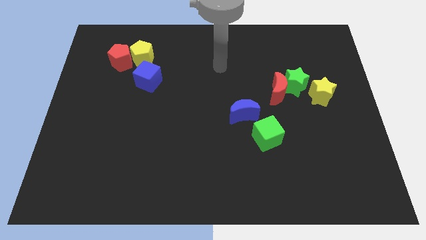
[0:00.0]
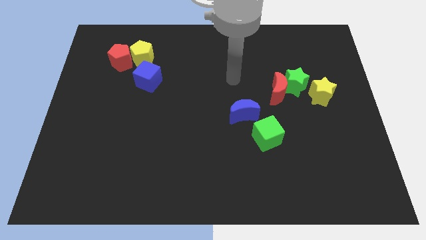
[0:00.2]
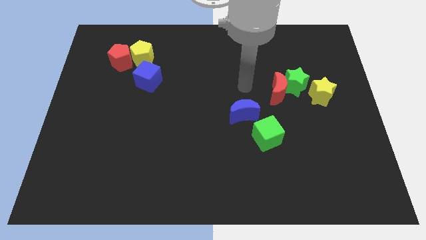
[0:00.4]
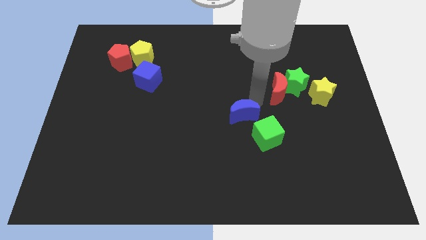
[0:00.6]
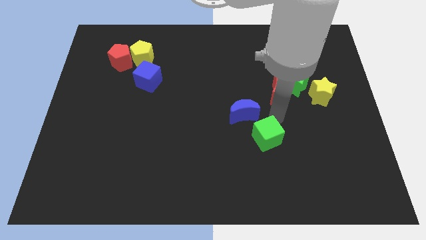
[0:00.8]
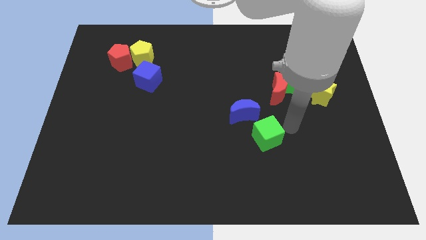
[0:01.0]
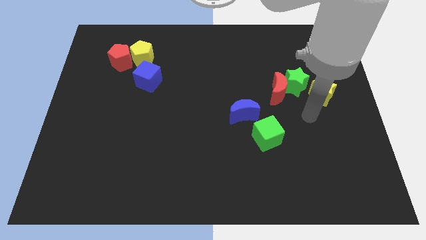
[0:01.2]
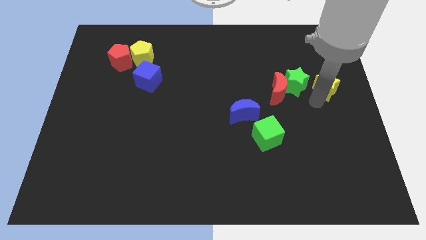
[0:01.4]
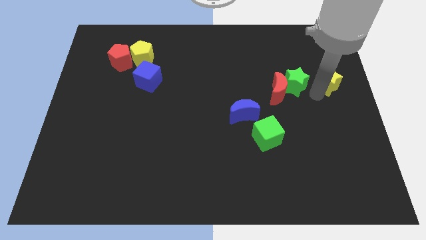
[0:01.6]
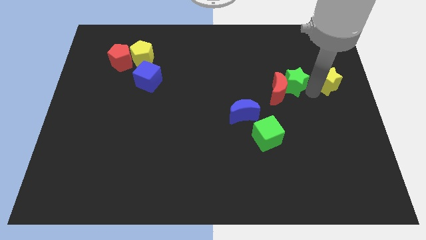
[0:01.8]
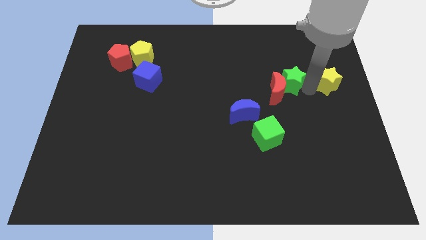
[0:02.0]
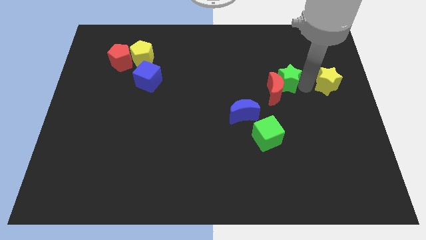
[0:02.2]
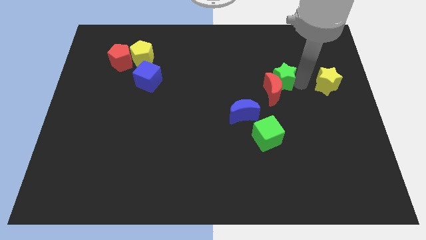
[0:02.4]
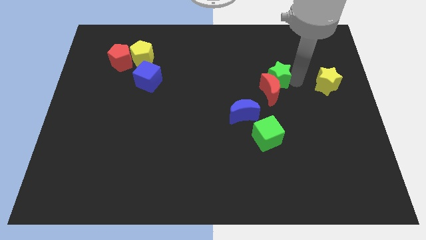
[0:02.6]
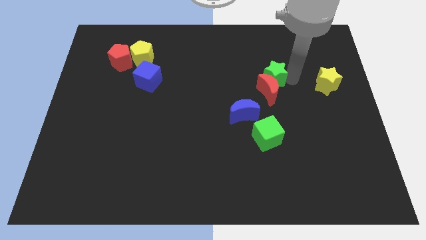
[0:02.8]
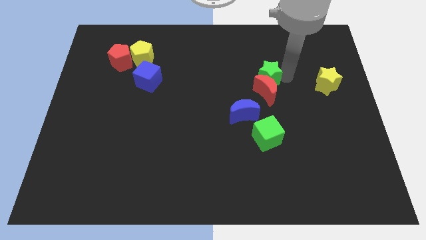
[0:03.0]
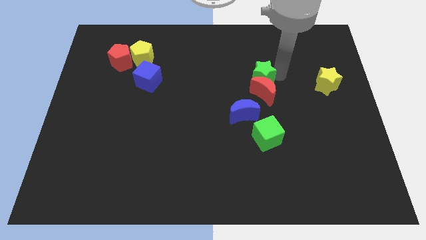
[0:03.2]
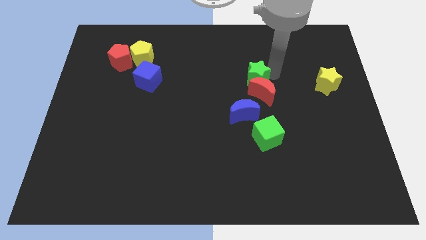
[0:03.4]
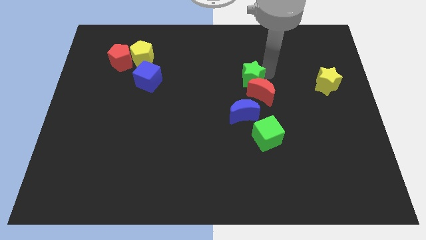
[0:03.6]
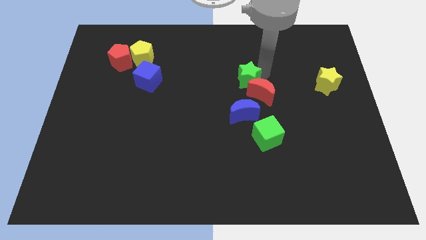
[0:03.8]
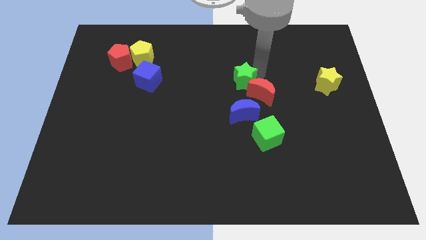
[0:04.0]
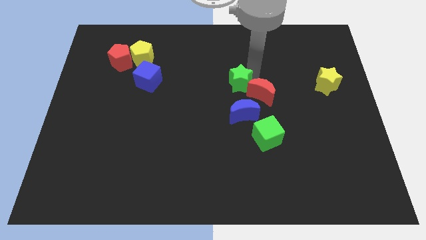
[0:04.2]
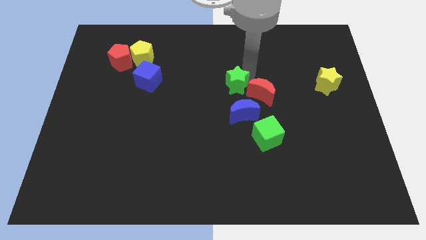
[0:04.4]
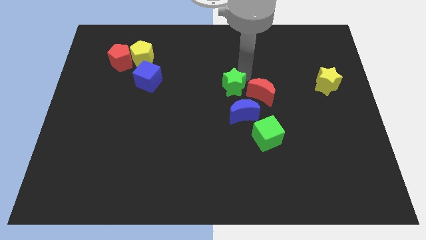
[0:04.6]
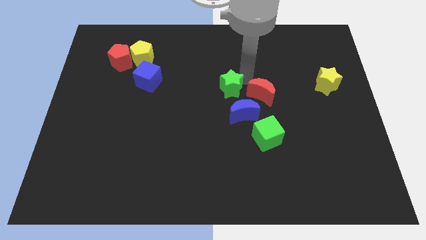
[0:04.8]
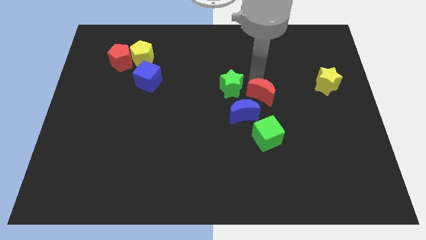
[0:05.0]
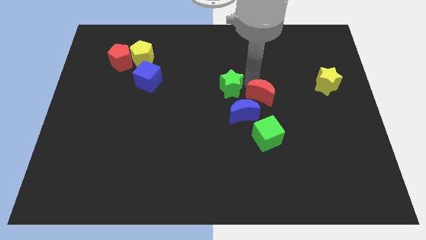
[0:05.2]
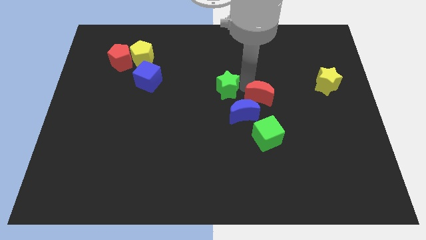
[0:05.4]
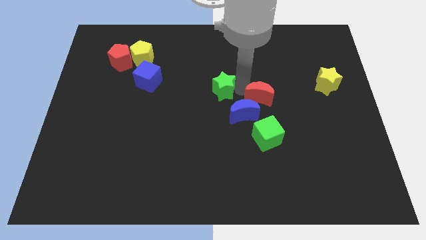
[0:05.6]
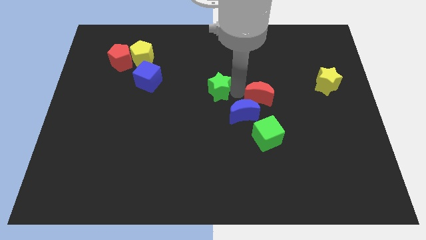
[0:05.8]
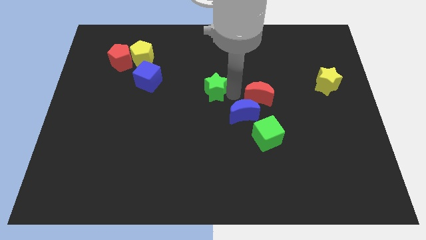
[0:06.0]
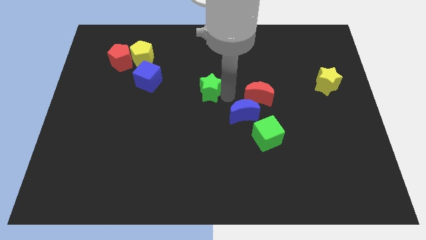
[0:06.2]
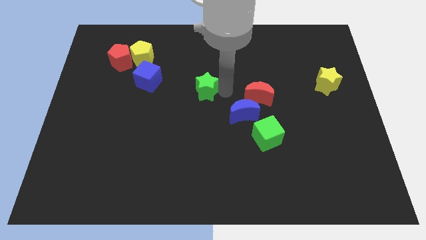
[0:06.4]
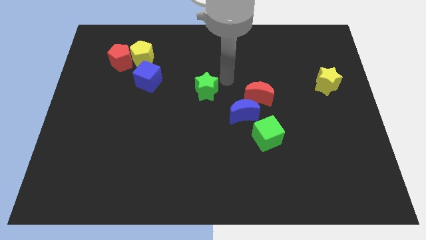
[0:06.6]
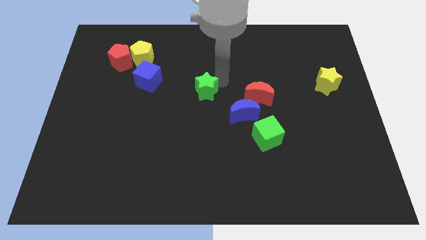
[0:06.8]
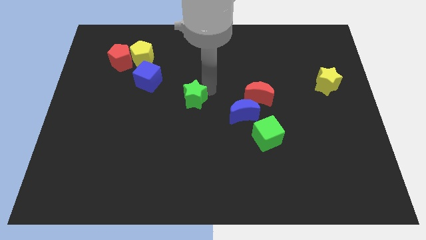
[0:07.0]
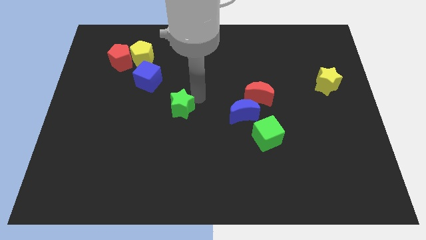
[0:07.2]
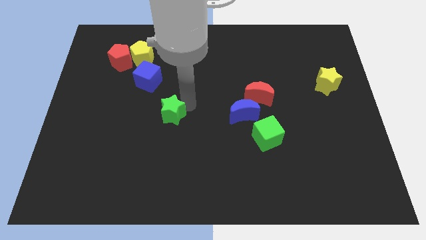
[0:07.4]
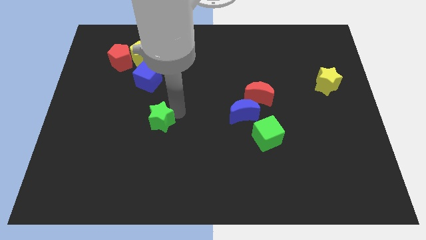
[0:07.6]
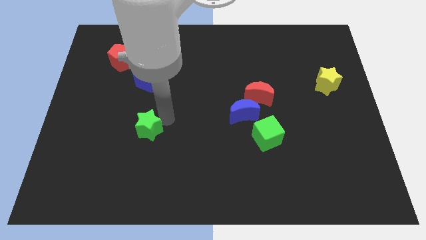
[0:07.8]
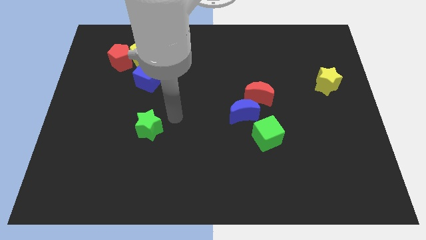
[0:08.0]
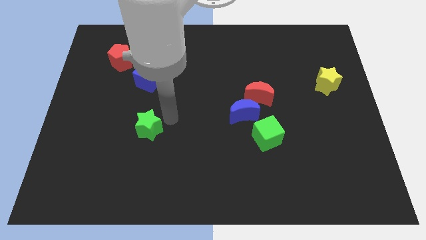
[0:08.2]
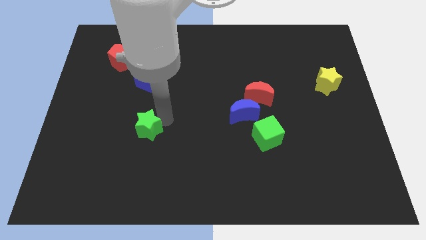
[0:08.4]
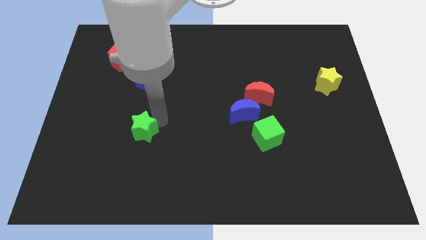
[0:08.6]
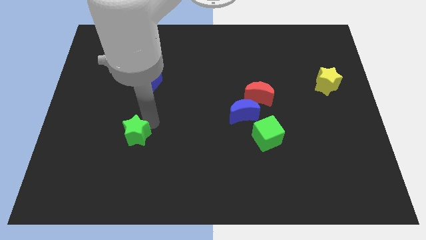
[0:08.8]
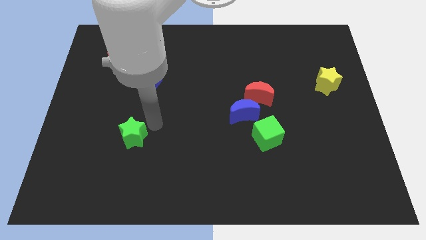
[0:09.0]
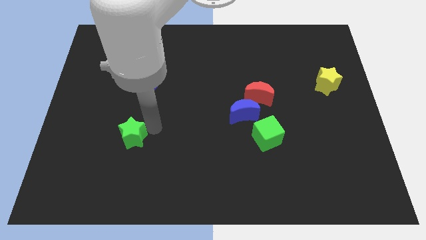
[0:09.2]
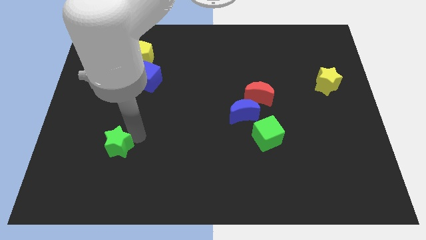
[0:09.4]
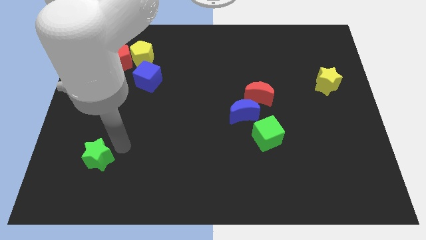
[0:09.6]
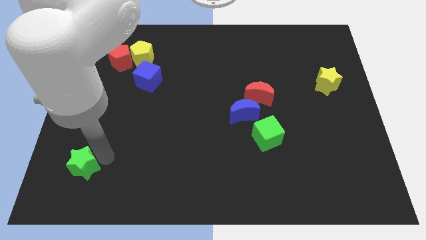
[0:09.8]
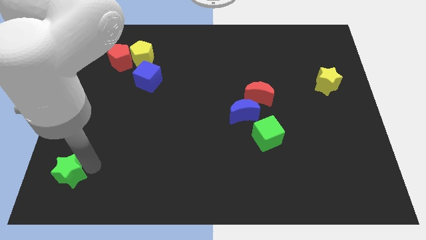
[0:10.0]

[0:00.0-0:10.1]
move the green star to the lower left corner

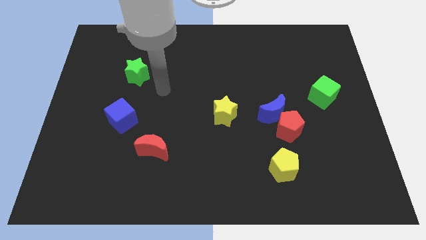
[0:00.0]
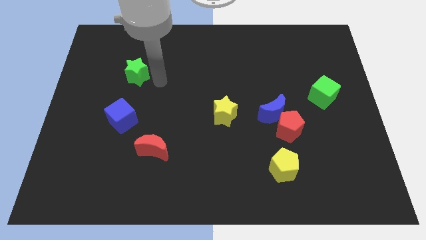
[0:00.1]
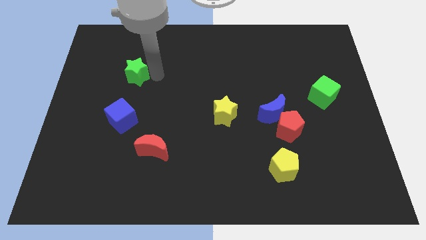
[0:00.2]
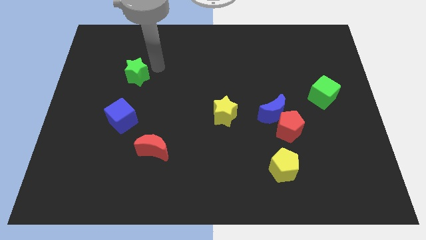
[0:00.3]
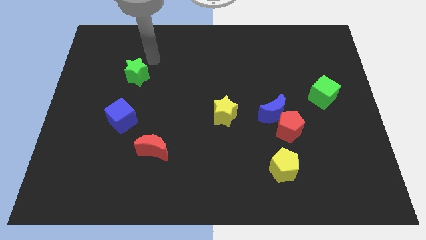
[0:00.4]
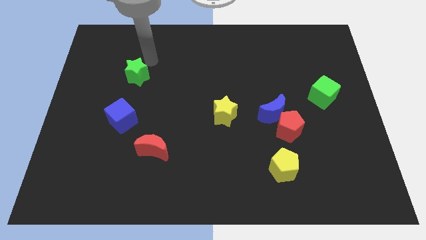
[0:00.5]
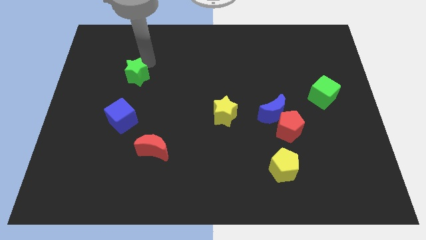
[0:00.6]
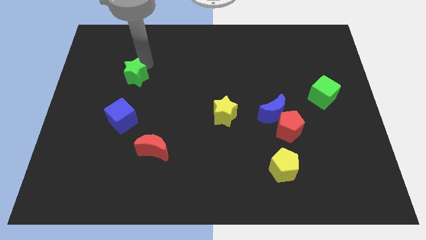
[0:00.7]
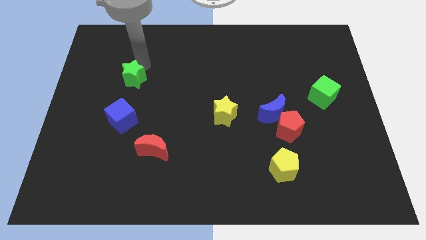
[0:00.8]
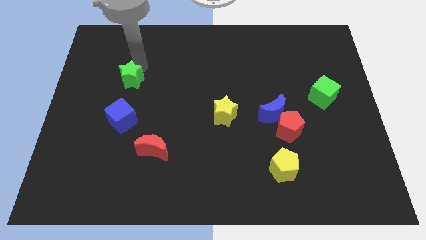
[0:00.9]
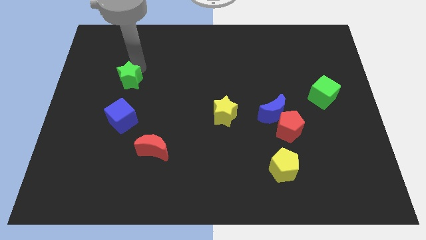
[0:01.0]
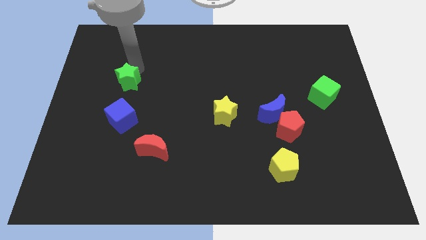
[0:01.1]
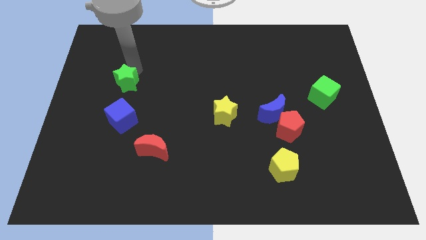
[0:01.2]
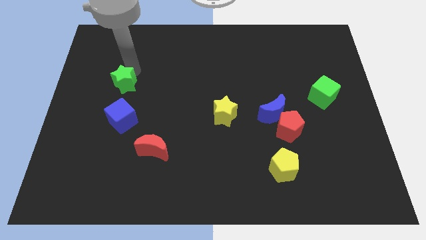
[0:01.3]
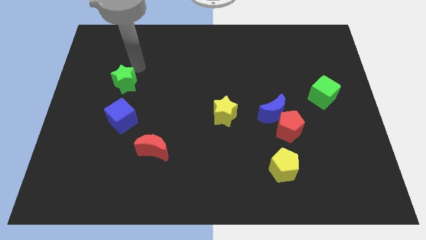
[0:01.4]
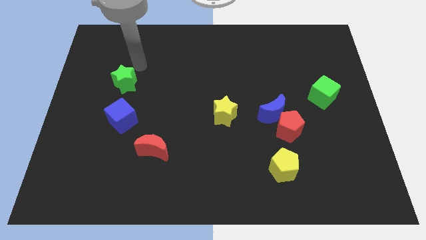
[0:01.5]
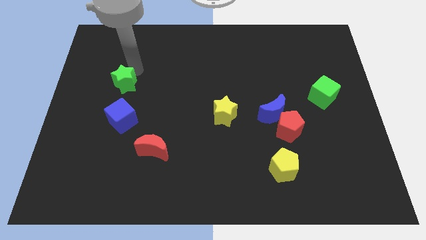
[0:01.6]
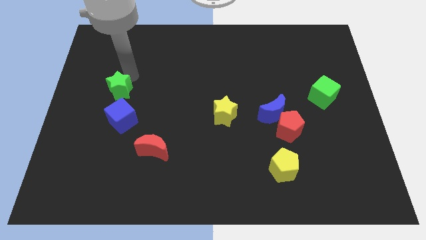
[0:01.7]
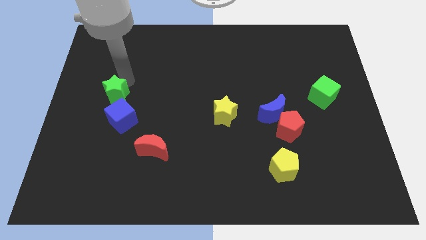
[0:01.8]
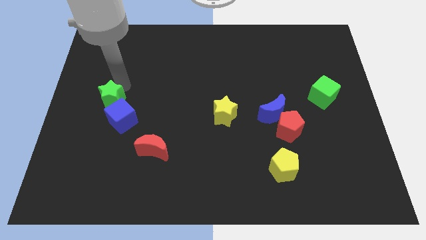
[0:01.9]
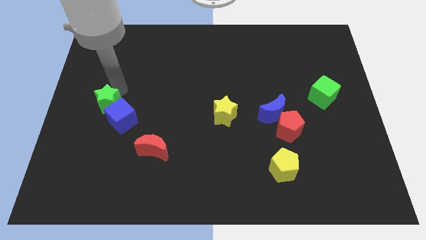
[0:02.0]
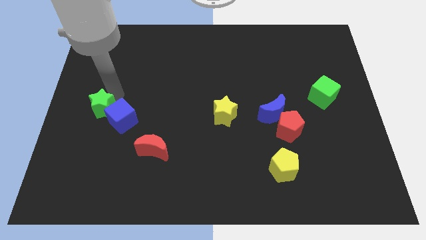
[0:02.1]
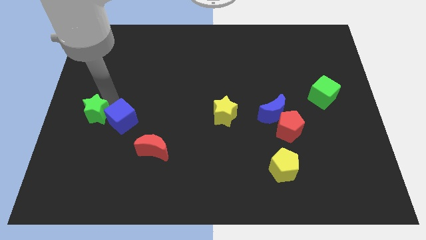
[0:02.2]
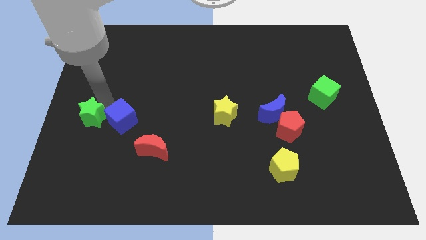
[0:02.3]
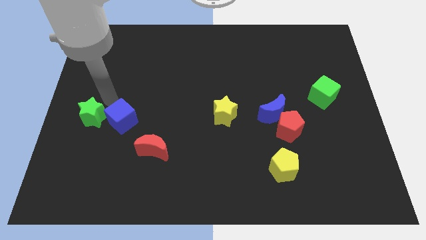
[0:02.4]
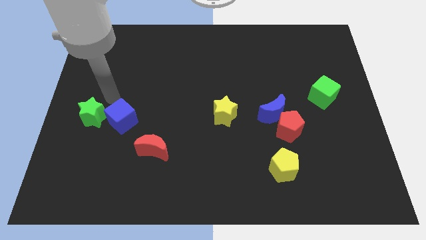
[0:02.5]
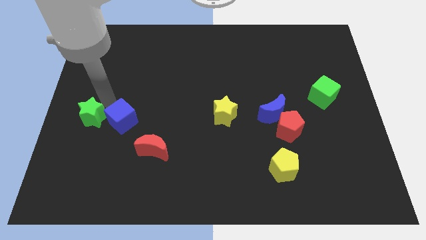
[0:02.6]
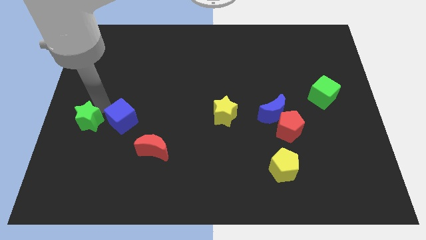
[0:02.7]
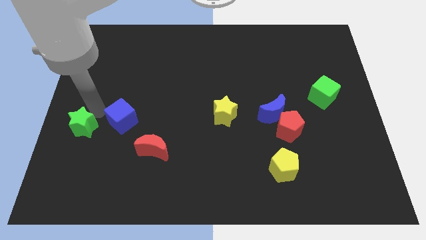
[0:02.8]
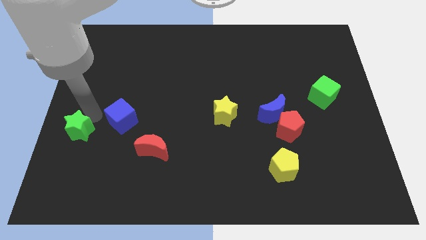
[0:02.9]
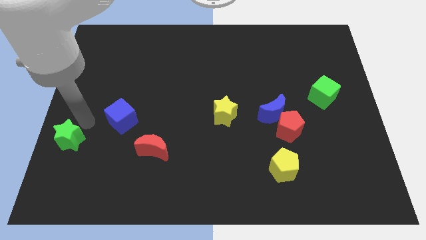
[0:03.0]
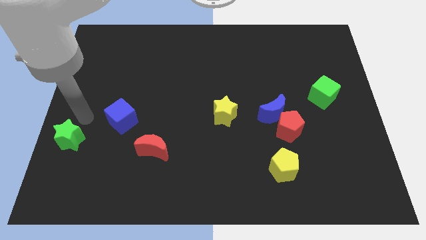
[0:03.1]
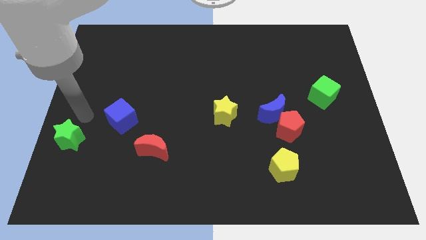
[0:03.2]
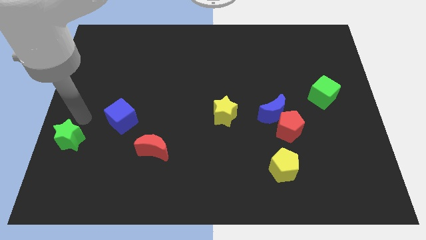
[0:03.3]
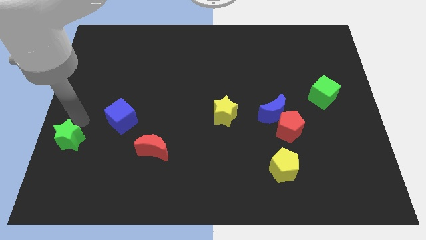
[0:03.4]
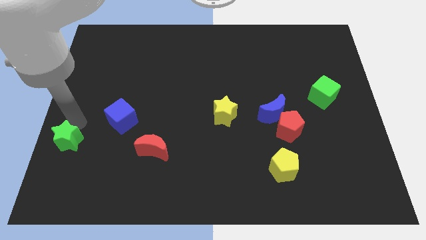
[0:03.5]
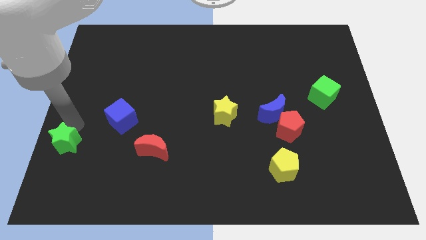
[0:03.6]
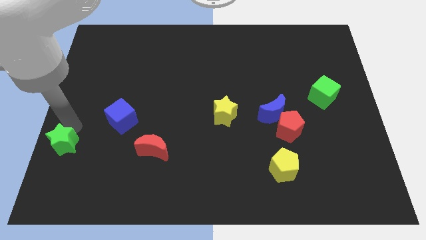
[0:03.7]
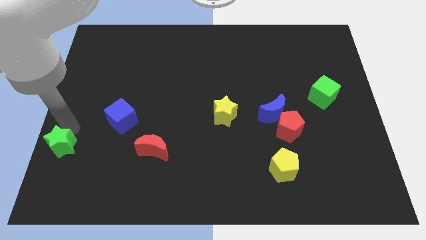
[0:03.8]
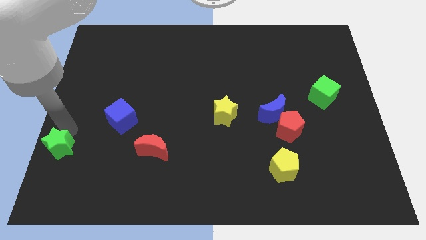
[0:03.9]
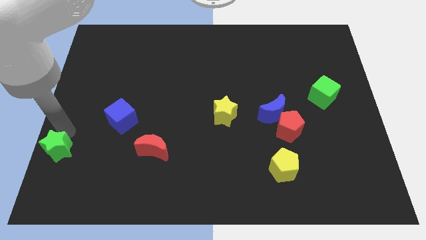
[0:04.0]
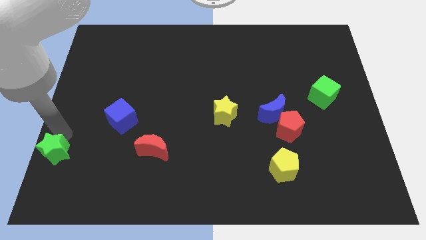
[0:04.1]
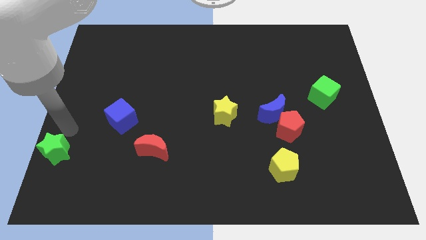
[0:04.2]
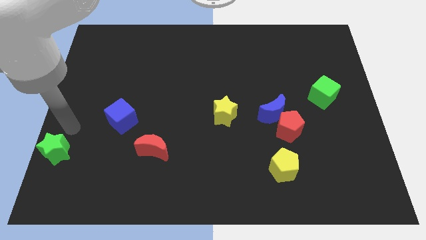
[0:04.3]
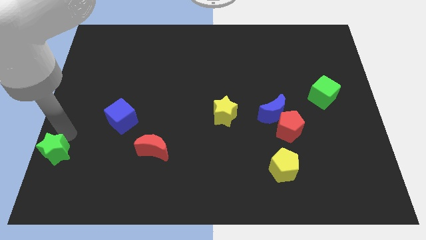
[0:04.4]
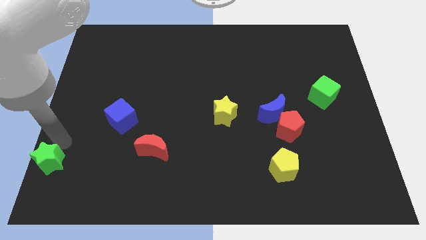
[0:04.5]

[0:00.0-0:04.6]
push the green star to the lower left corner
